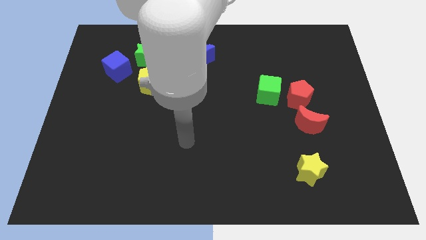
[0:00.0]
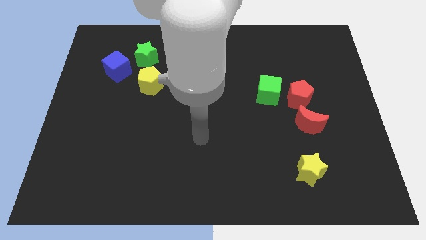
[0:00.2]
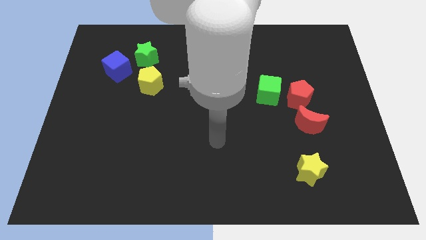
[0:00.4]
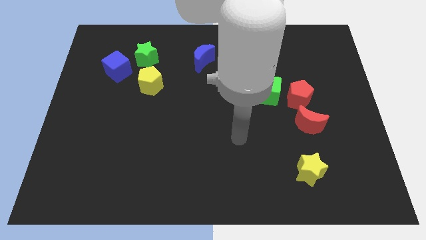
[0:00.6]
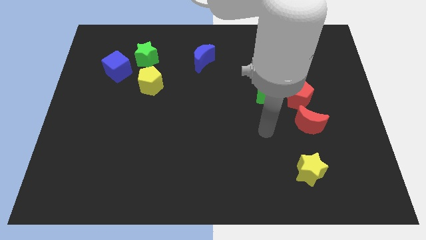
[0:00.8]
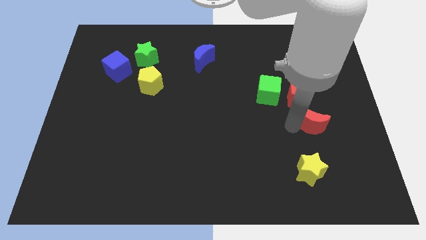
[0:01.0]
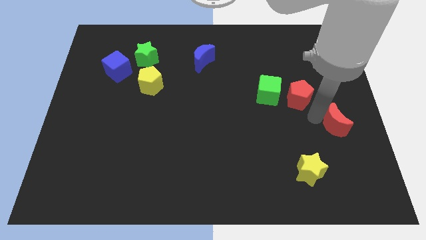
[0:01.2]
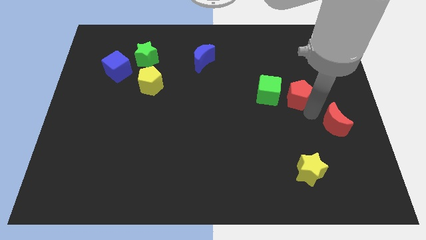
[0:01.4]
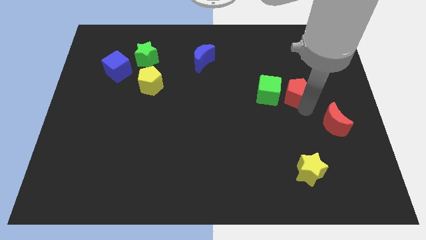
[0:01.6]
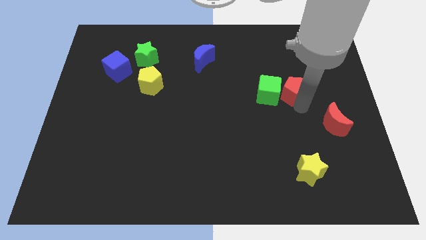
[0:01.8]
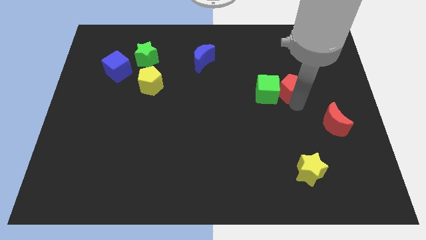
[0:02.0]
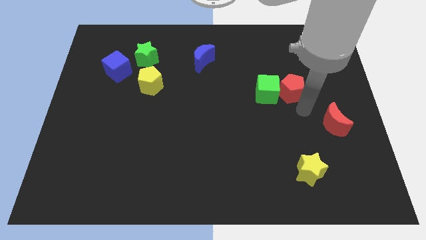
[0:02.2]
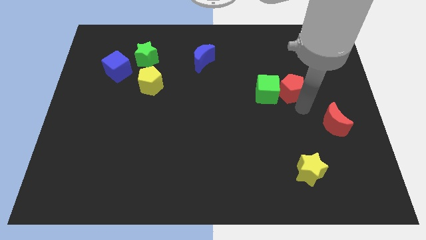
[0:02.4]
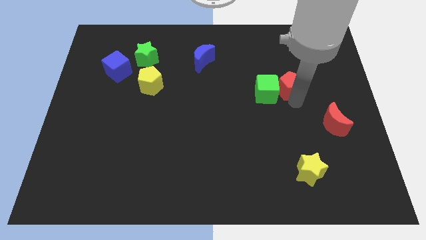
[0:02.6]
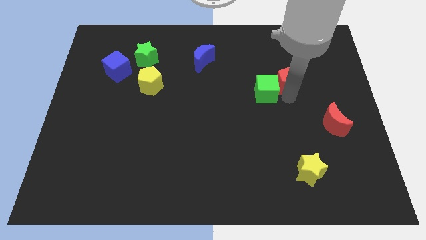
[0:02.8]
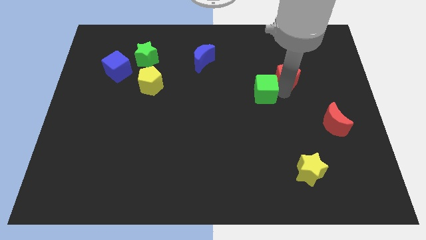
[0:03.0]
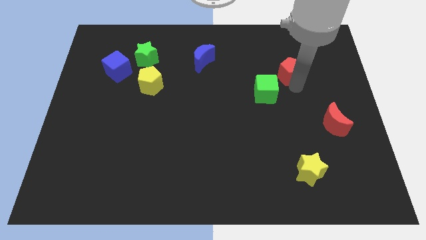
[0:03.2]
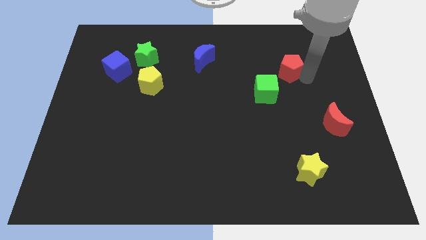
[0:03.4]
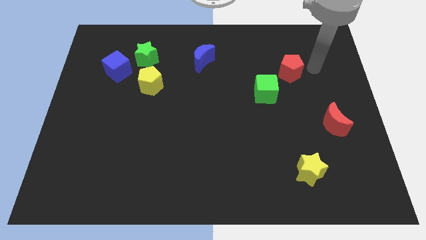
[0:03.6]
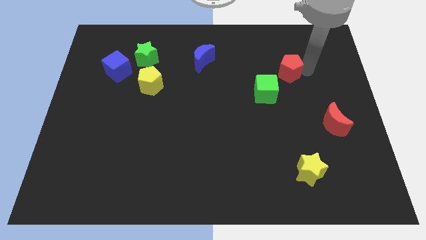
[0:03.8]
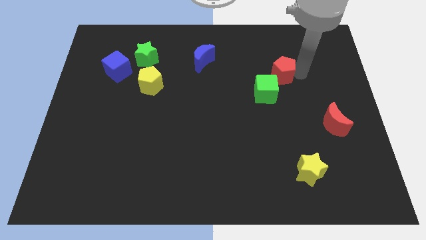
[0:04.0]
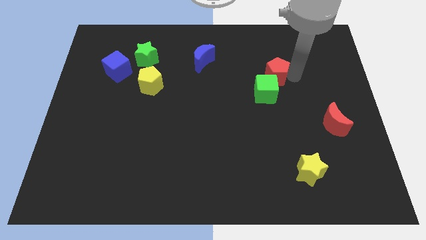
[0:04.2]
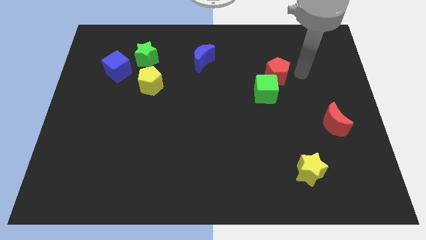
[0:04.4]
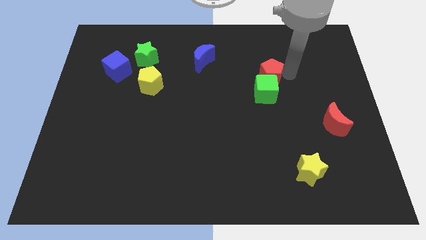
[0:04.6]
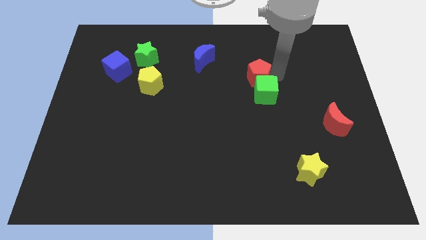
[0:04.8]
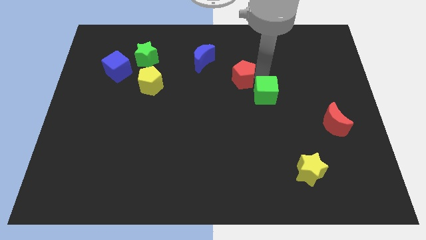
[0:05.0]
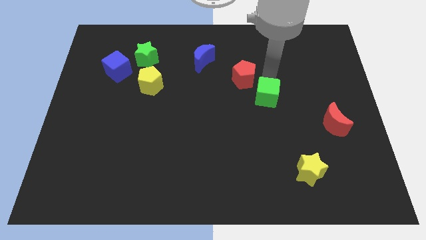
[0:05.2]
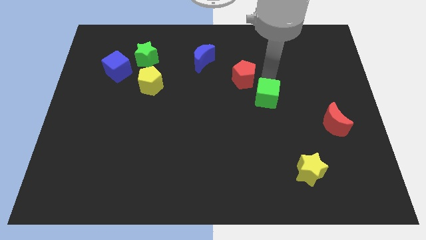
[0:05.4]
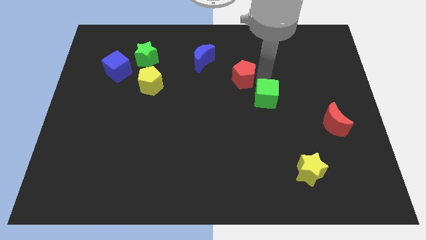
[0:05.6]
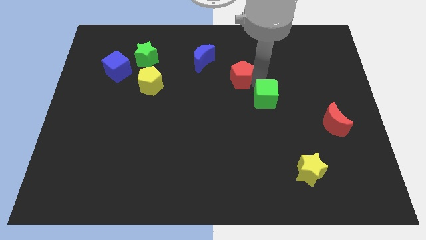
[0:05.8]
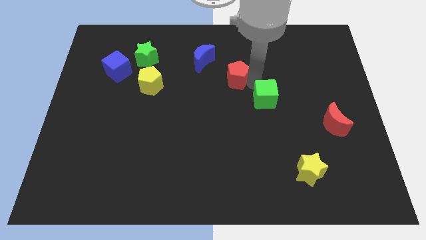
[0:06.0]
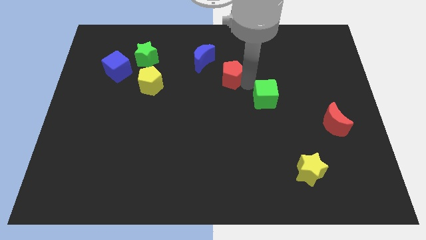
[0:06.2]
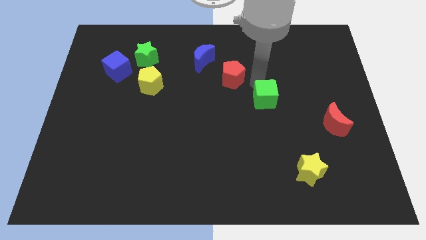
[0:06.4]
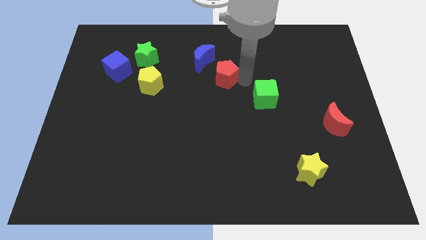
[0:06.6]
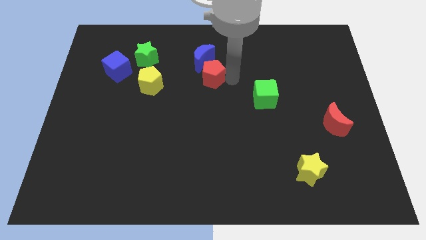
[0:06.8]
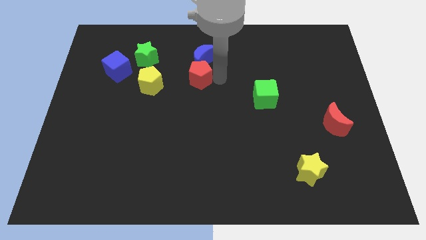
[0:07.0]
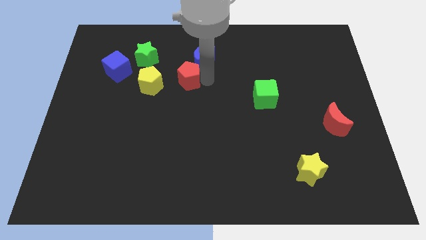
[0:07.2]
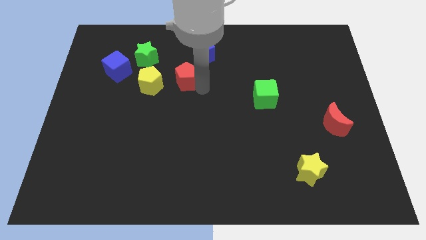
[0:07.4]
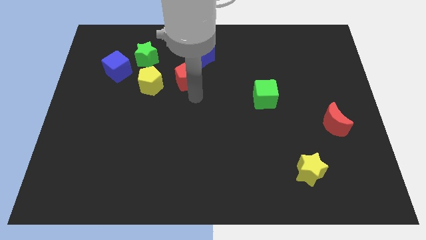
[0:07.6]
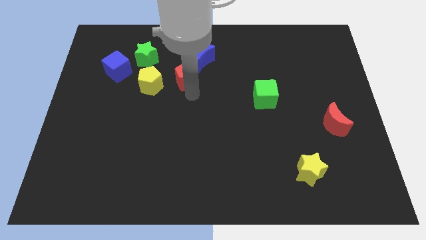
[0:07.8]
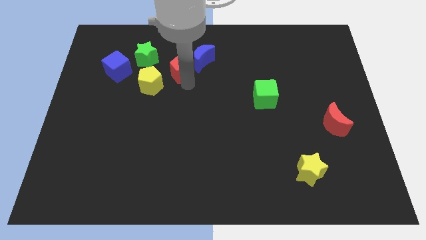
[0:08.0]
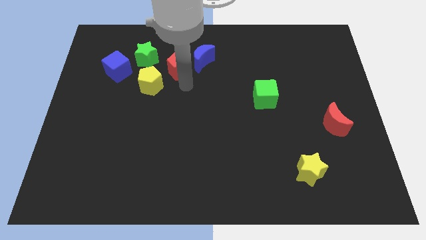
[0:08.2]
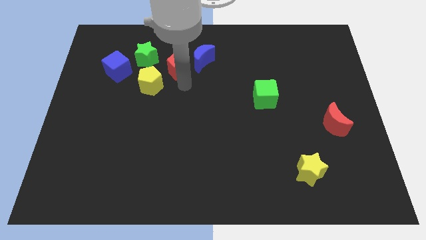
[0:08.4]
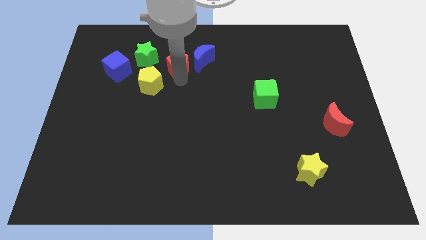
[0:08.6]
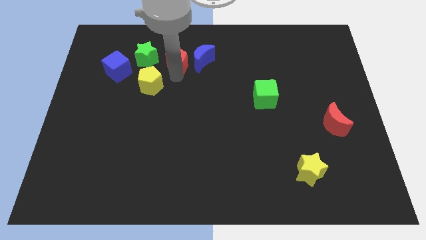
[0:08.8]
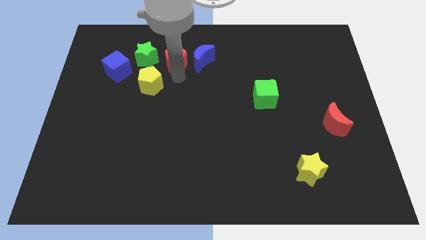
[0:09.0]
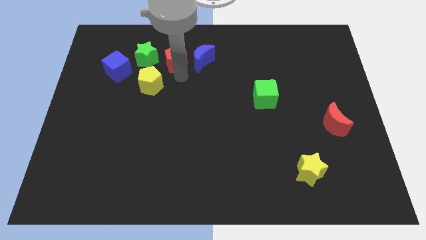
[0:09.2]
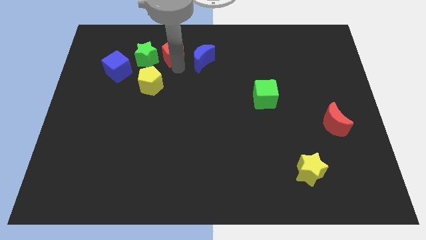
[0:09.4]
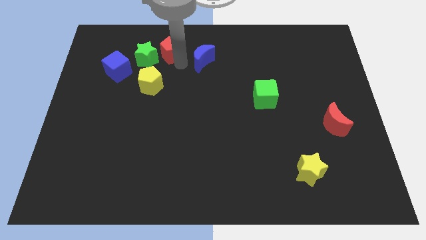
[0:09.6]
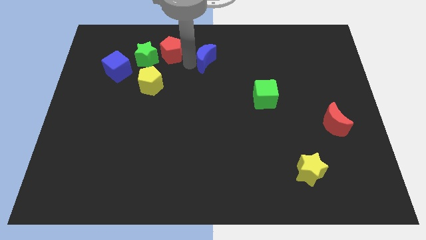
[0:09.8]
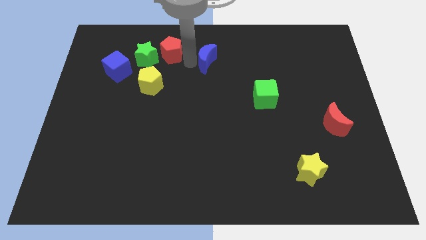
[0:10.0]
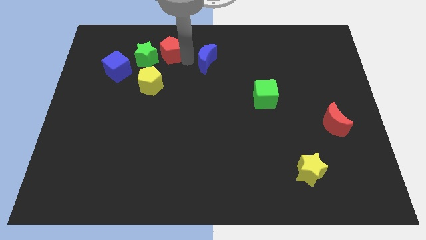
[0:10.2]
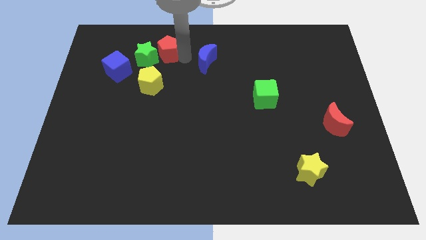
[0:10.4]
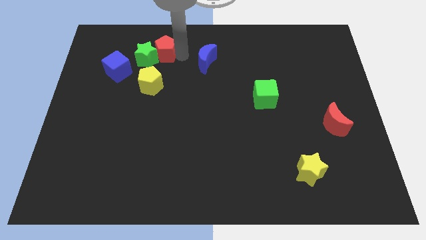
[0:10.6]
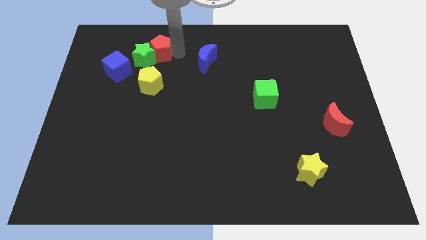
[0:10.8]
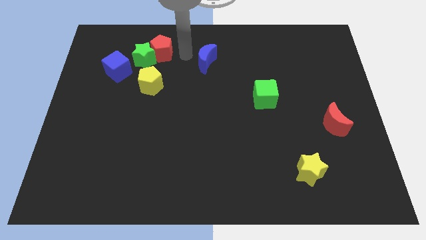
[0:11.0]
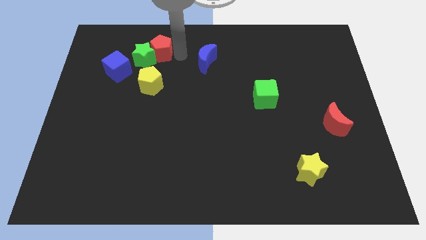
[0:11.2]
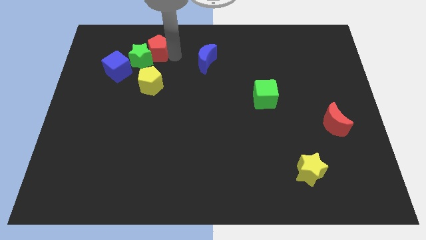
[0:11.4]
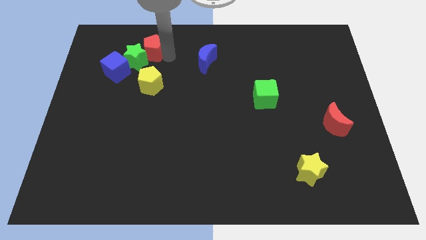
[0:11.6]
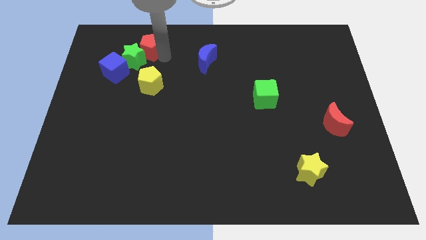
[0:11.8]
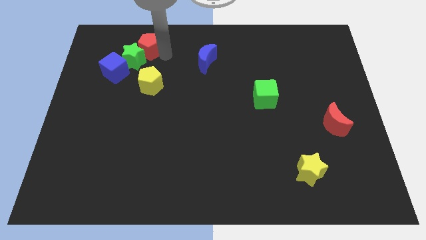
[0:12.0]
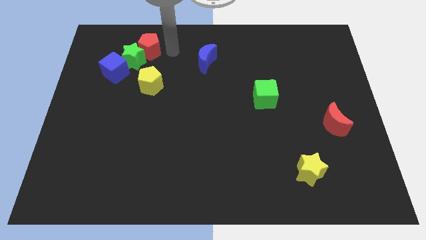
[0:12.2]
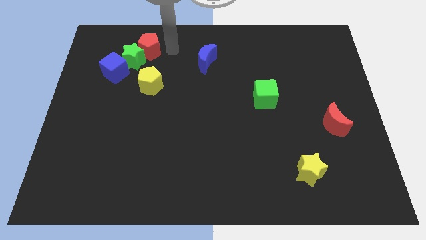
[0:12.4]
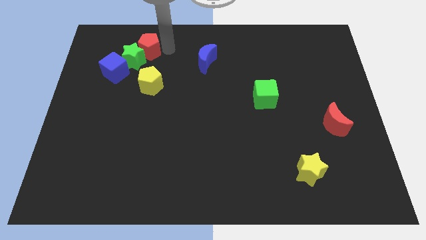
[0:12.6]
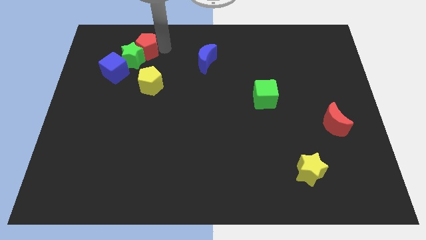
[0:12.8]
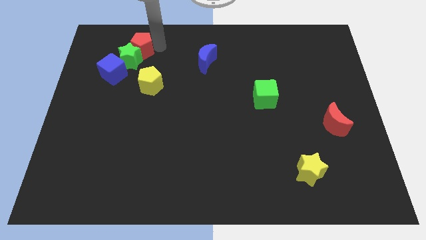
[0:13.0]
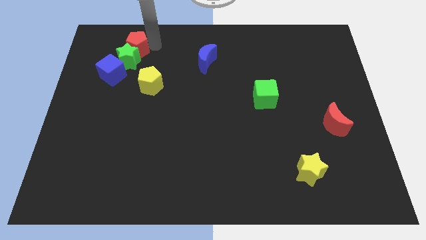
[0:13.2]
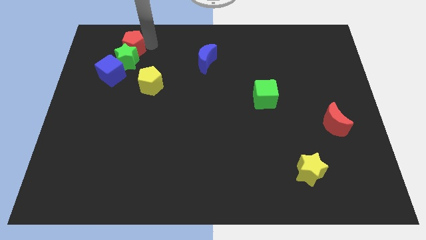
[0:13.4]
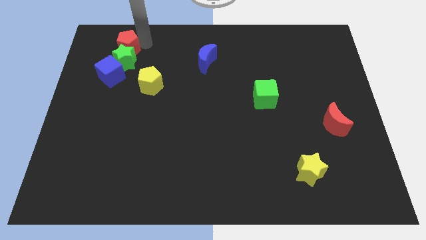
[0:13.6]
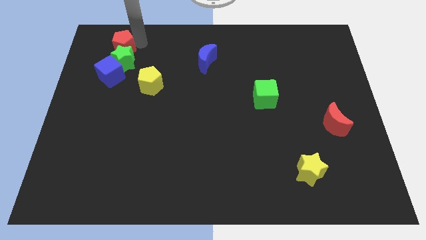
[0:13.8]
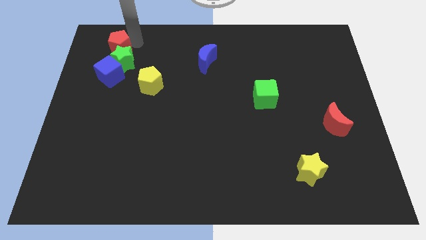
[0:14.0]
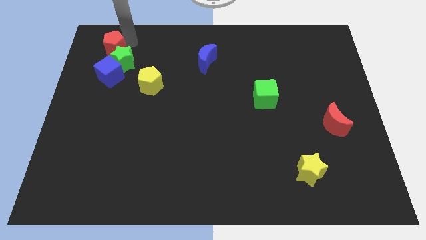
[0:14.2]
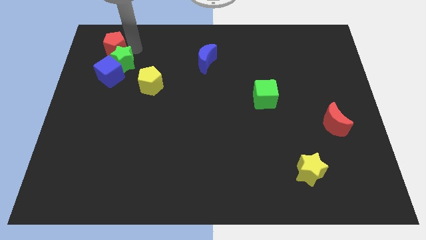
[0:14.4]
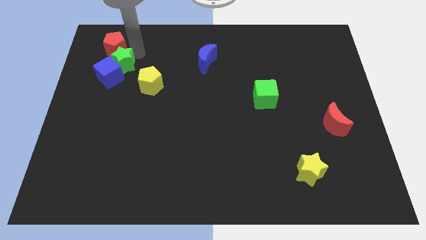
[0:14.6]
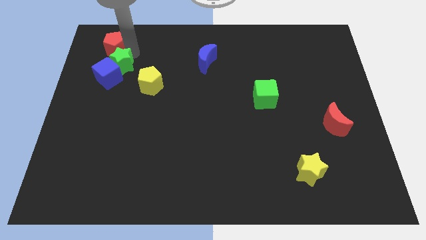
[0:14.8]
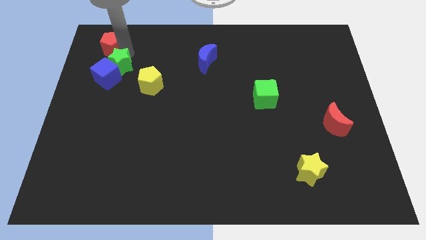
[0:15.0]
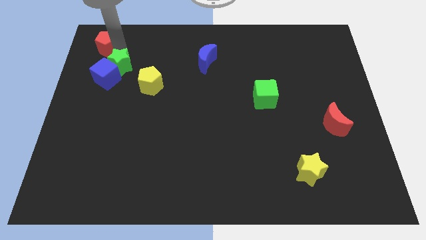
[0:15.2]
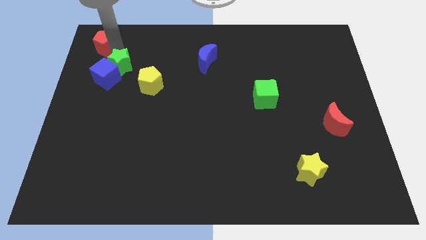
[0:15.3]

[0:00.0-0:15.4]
put the red pentagon to the top left of the board

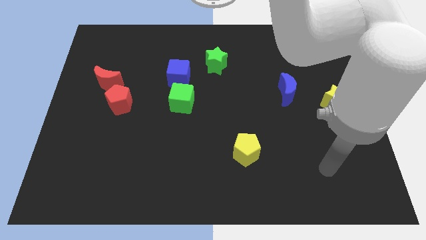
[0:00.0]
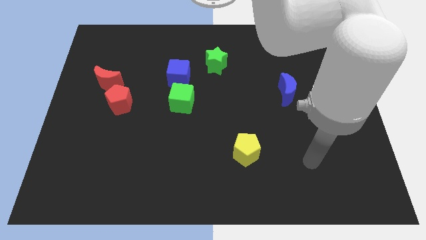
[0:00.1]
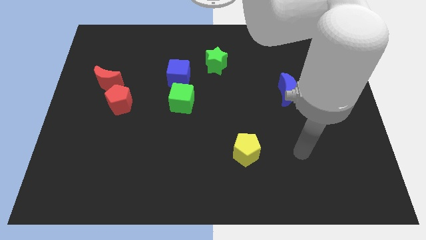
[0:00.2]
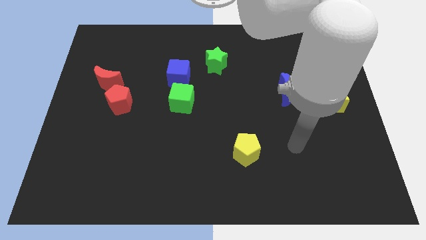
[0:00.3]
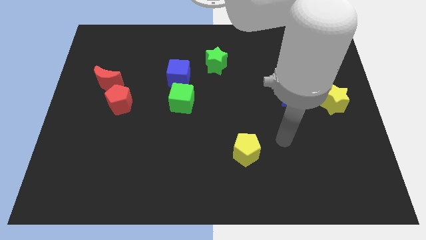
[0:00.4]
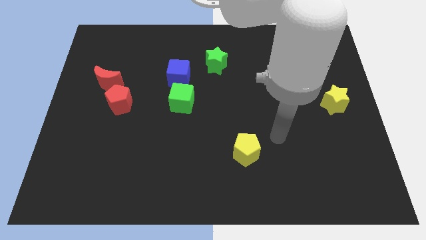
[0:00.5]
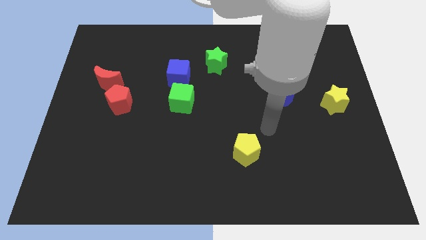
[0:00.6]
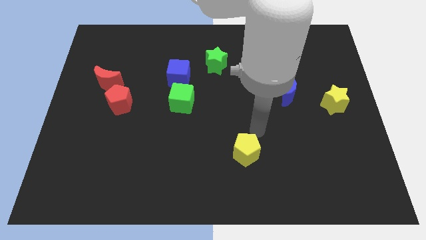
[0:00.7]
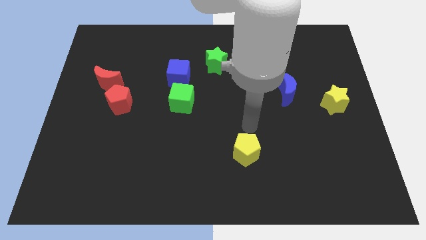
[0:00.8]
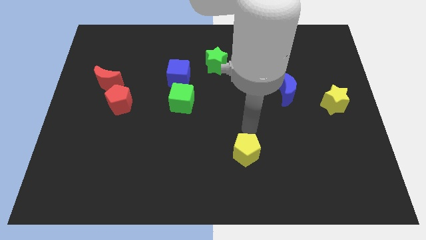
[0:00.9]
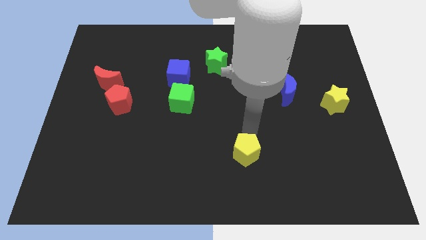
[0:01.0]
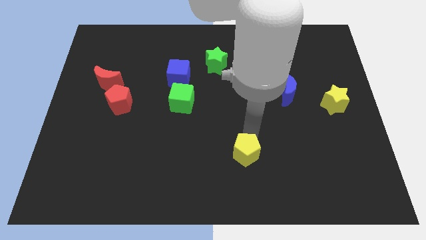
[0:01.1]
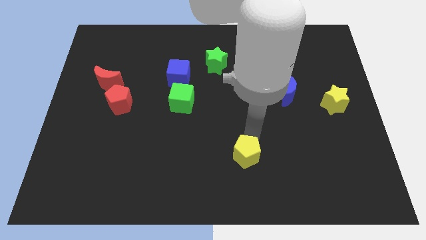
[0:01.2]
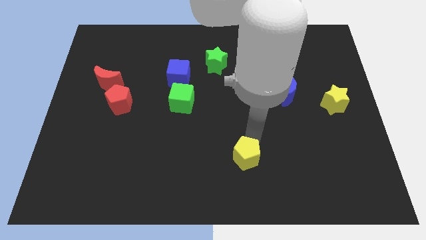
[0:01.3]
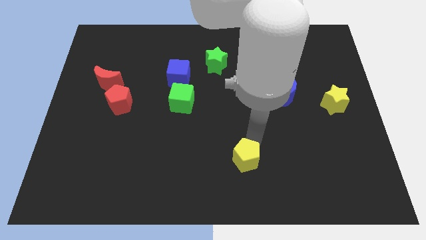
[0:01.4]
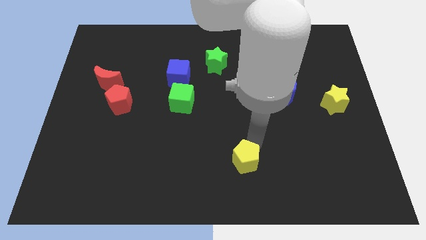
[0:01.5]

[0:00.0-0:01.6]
put the yellow pentagon to the bottom side
